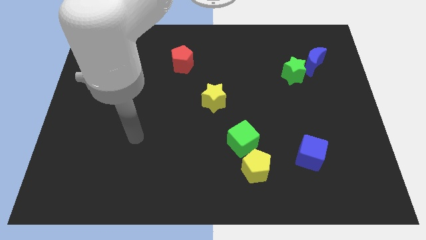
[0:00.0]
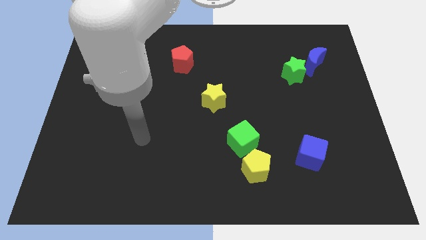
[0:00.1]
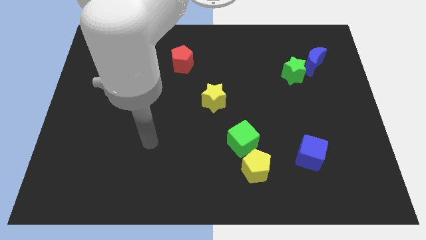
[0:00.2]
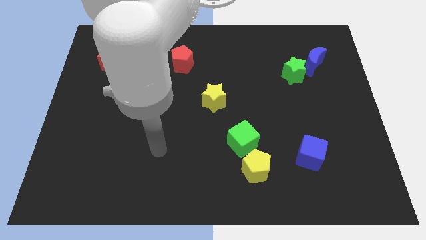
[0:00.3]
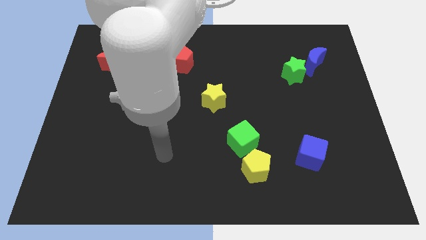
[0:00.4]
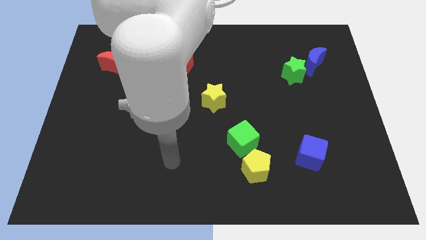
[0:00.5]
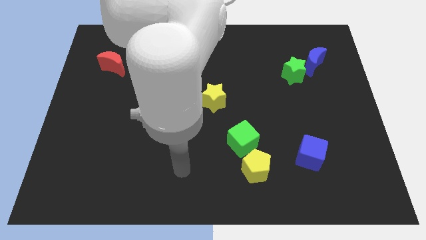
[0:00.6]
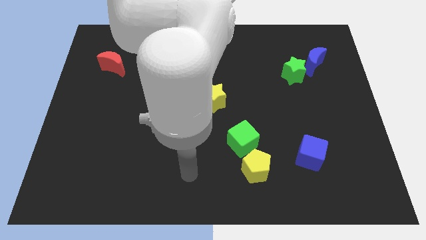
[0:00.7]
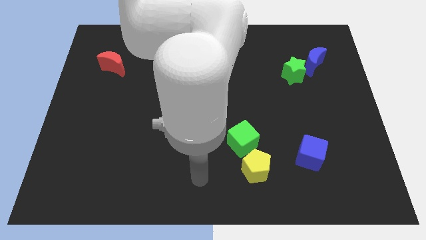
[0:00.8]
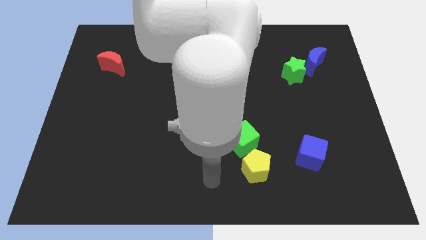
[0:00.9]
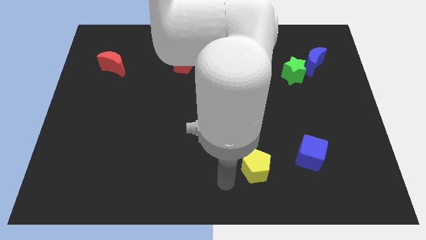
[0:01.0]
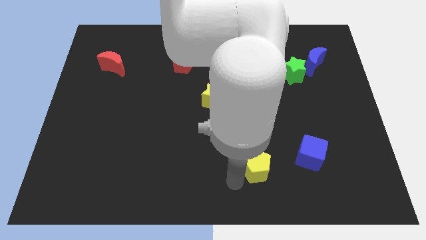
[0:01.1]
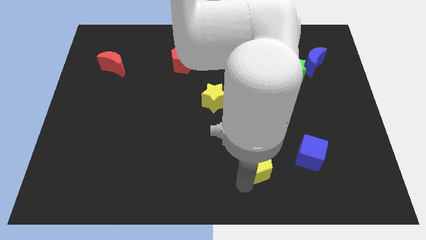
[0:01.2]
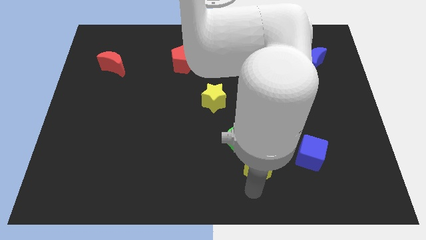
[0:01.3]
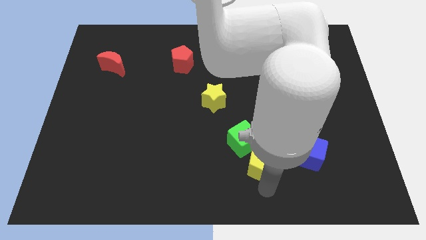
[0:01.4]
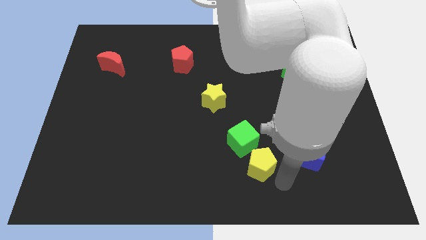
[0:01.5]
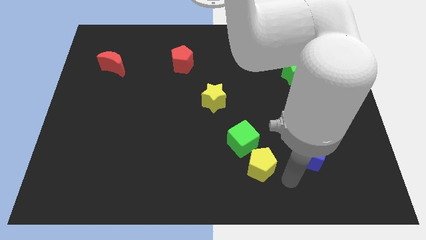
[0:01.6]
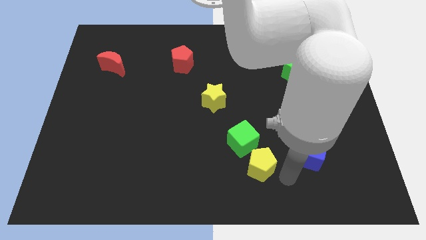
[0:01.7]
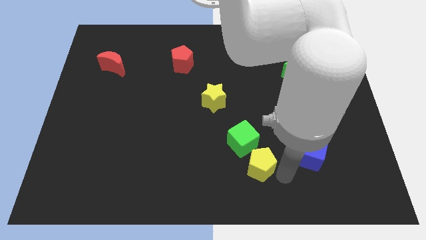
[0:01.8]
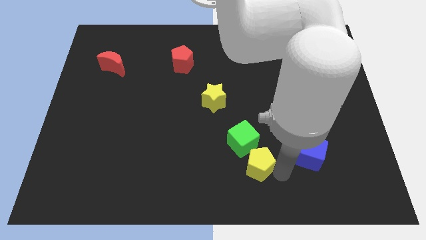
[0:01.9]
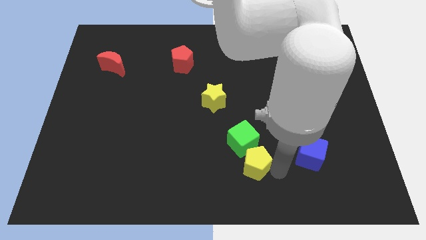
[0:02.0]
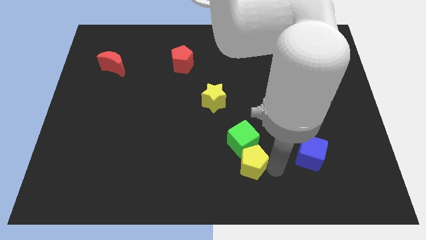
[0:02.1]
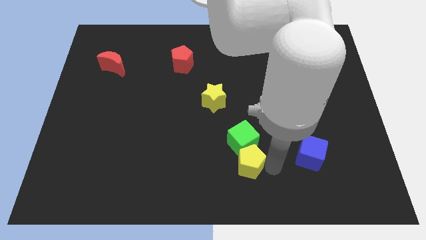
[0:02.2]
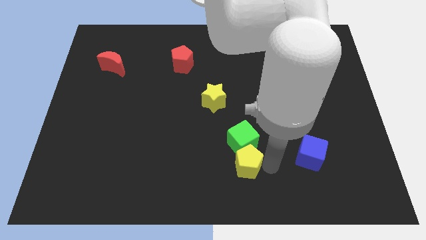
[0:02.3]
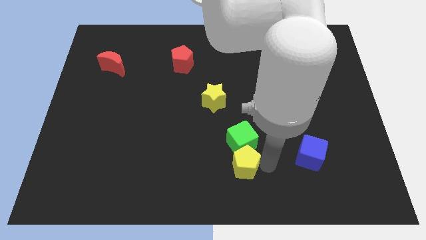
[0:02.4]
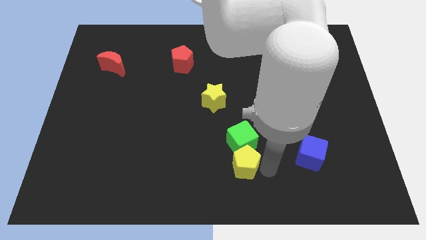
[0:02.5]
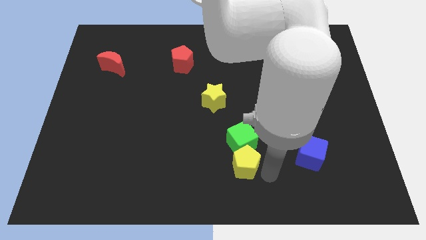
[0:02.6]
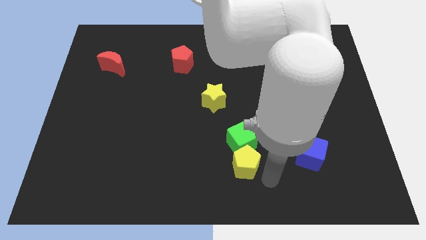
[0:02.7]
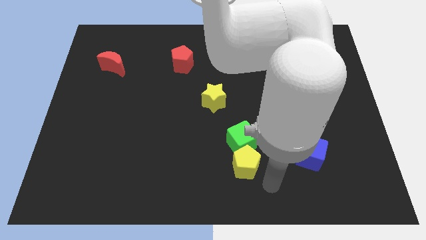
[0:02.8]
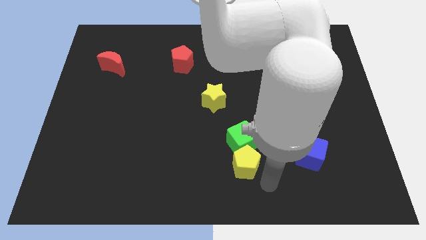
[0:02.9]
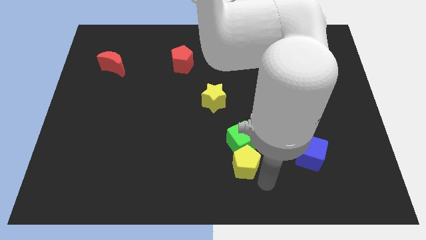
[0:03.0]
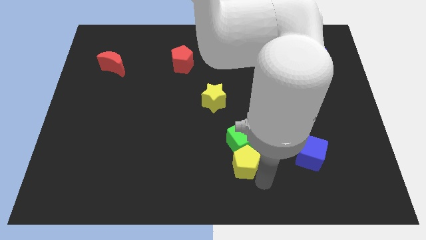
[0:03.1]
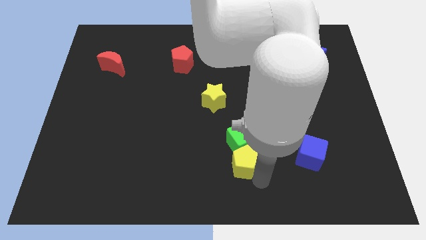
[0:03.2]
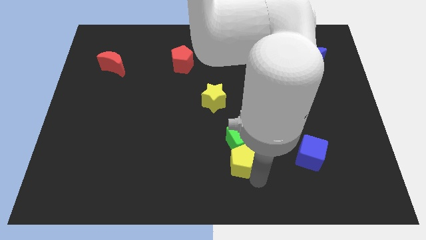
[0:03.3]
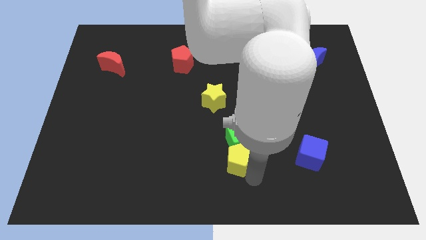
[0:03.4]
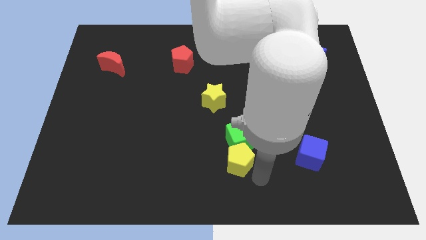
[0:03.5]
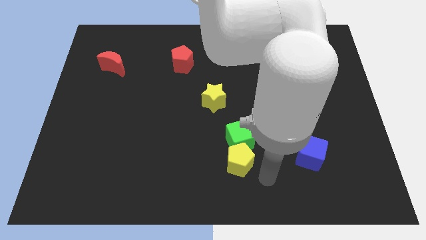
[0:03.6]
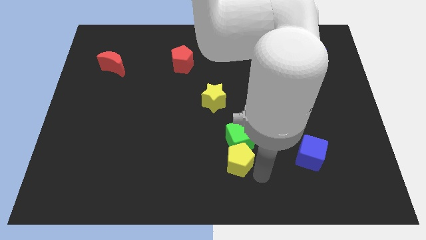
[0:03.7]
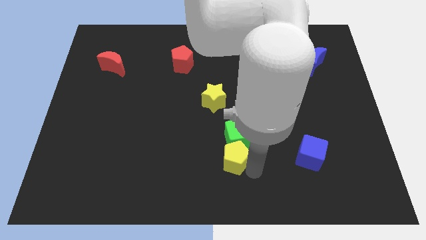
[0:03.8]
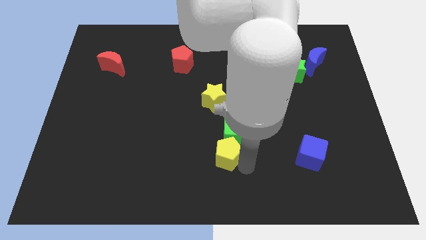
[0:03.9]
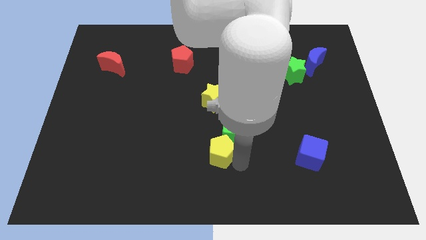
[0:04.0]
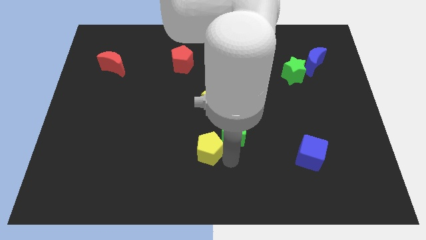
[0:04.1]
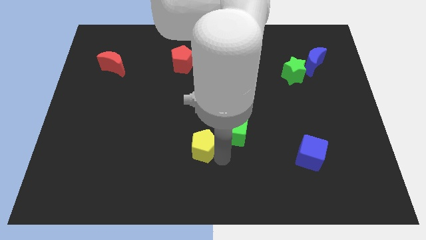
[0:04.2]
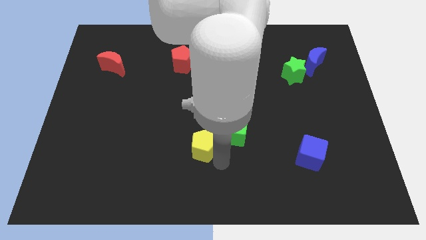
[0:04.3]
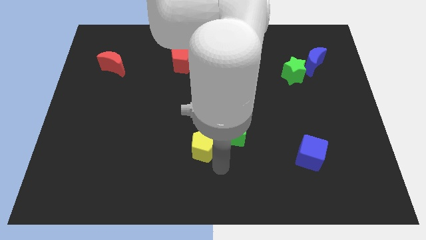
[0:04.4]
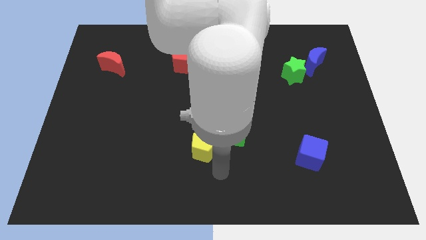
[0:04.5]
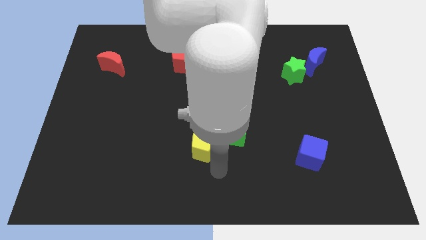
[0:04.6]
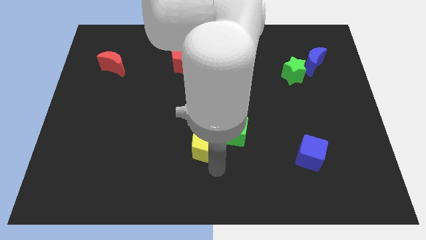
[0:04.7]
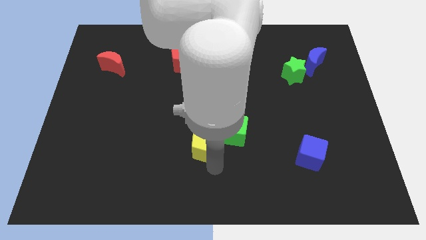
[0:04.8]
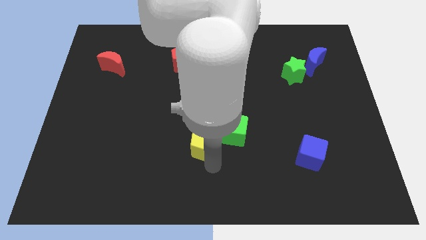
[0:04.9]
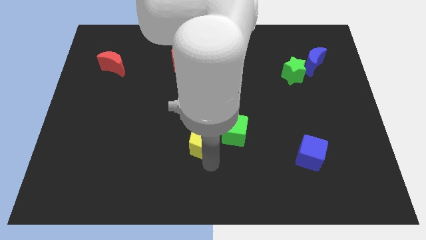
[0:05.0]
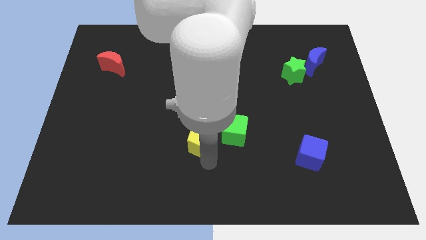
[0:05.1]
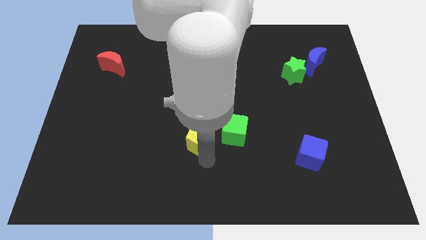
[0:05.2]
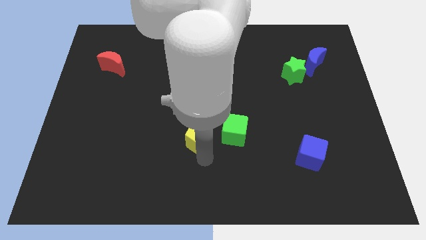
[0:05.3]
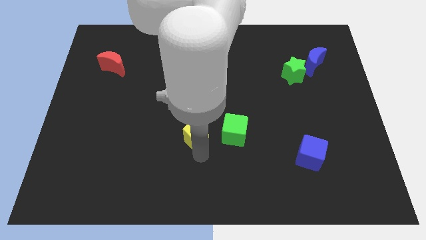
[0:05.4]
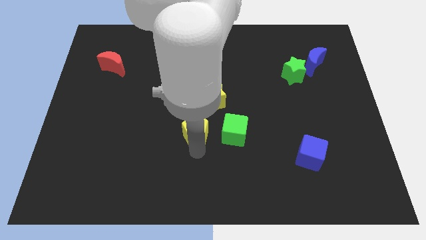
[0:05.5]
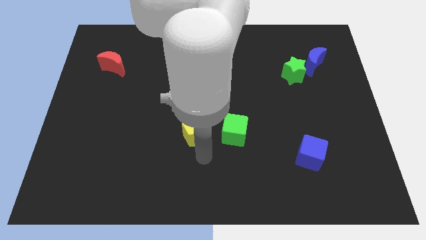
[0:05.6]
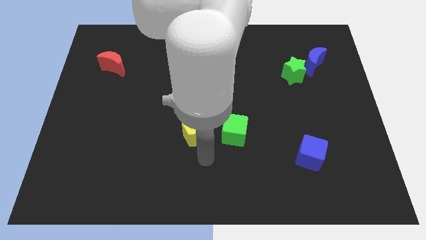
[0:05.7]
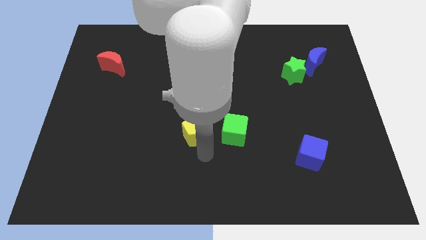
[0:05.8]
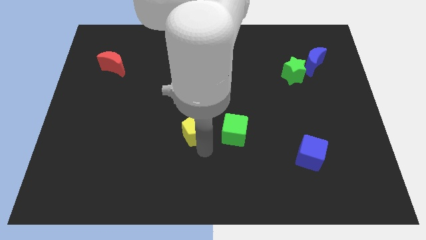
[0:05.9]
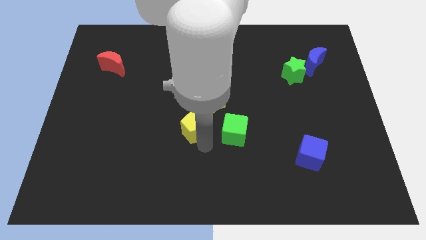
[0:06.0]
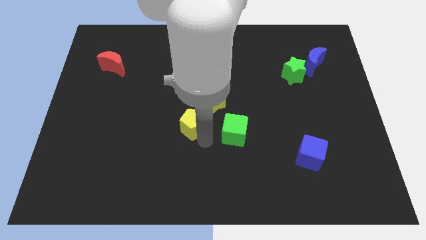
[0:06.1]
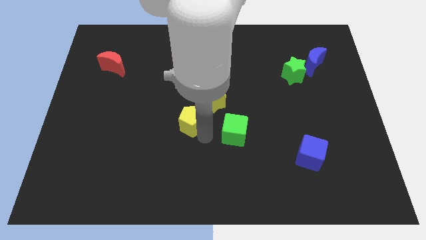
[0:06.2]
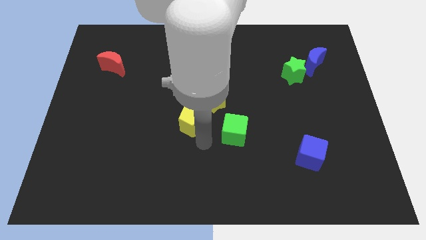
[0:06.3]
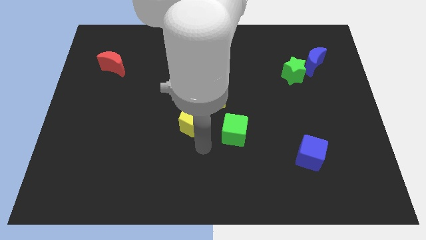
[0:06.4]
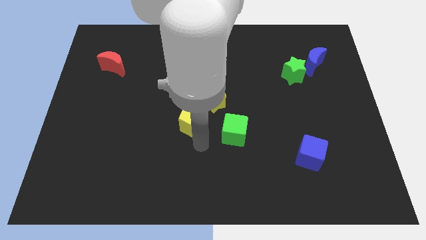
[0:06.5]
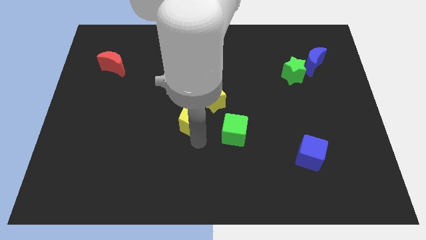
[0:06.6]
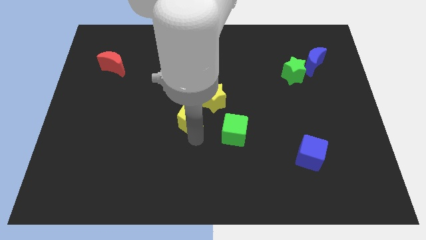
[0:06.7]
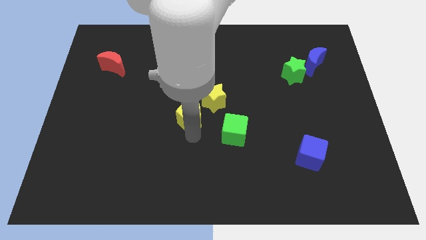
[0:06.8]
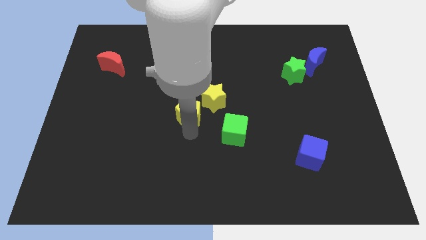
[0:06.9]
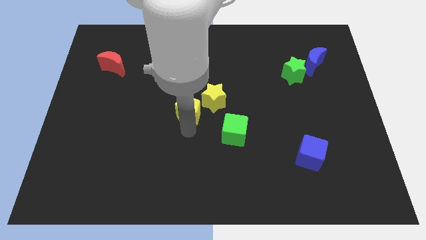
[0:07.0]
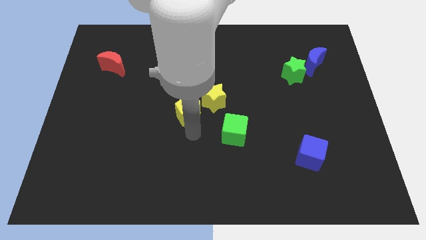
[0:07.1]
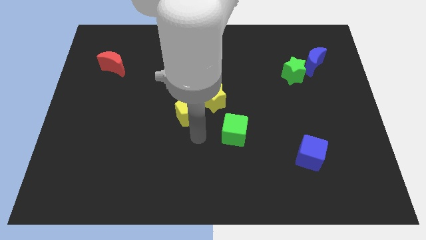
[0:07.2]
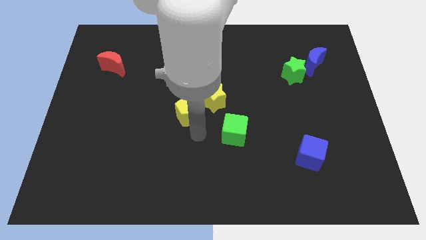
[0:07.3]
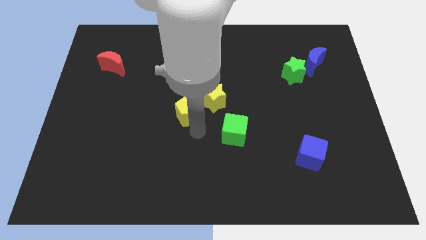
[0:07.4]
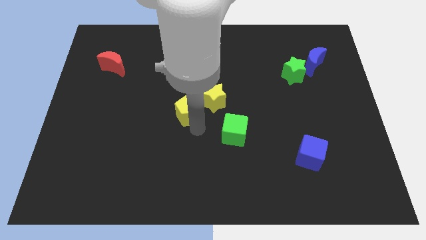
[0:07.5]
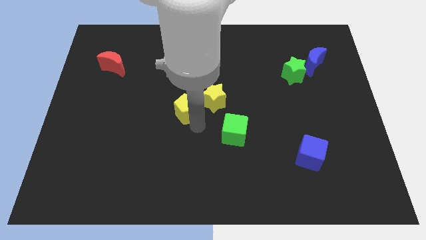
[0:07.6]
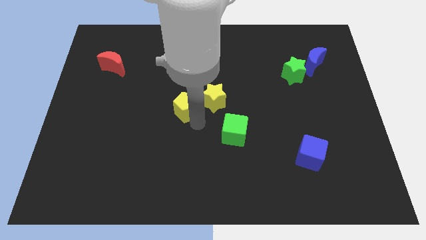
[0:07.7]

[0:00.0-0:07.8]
push the yellow pentagon to the bottom side of the red pentagon
